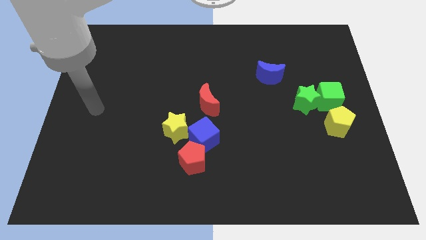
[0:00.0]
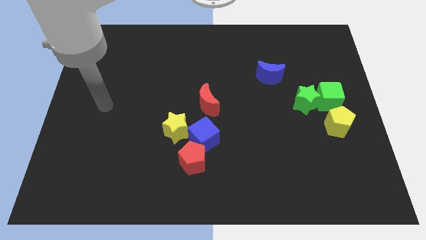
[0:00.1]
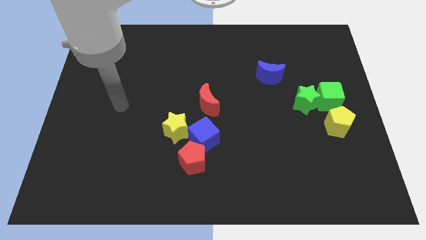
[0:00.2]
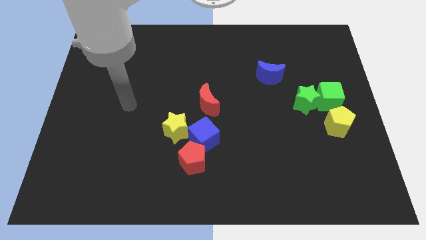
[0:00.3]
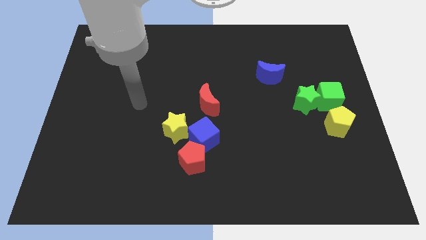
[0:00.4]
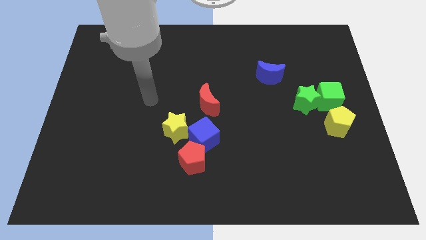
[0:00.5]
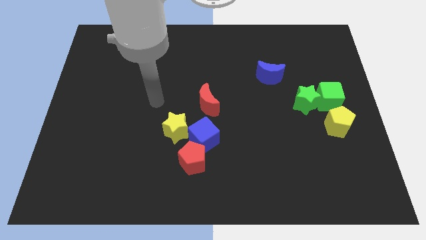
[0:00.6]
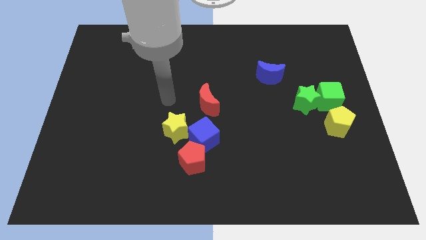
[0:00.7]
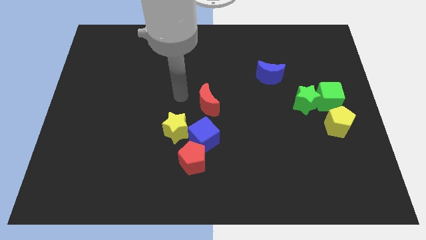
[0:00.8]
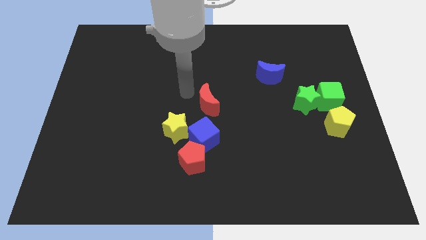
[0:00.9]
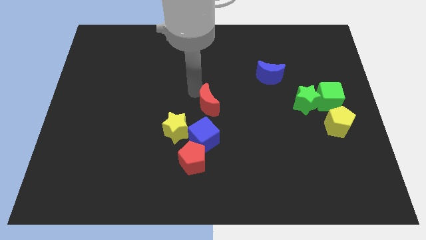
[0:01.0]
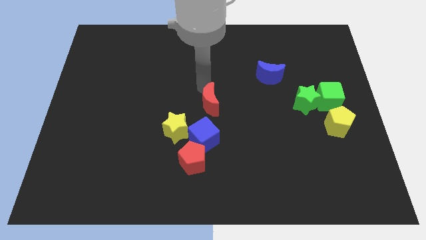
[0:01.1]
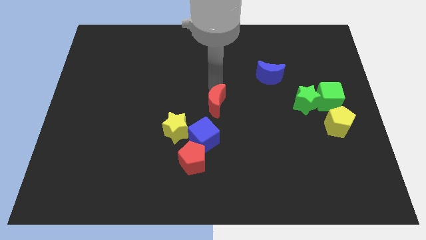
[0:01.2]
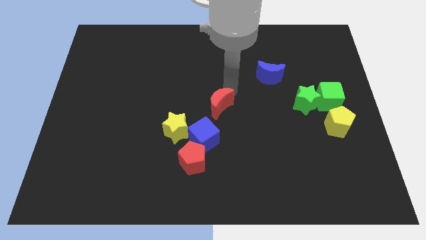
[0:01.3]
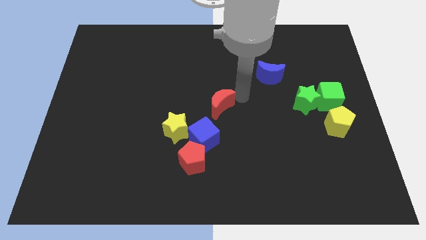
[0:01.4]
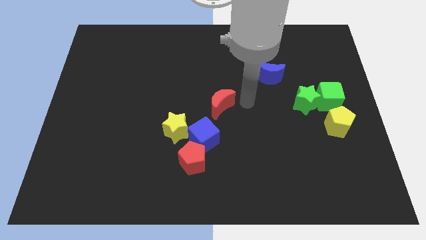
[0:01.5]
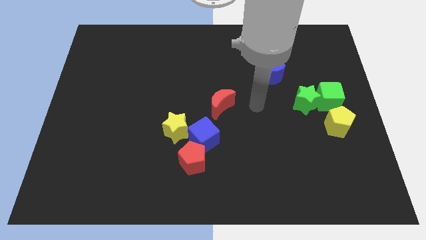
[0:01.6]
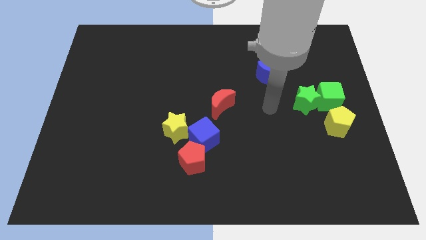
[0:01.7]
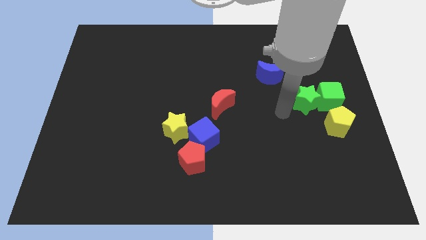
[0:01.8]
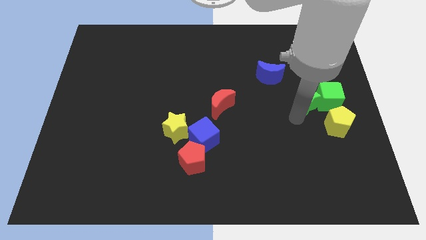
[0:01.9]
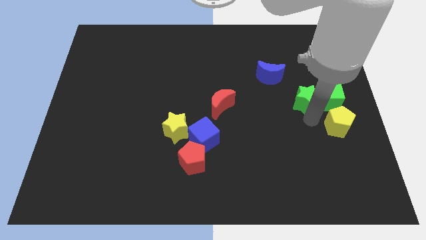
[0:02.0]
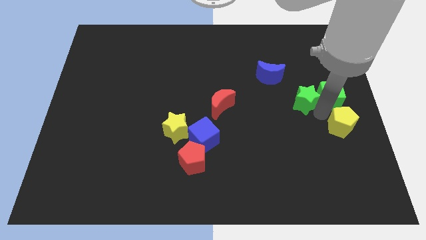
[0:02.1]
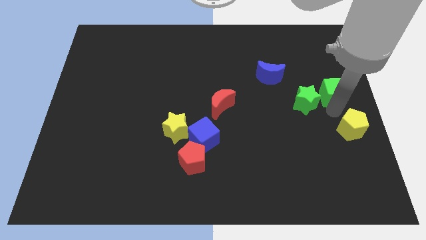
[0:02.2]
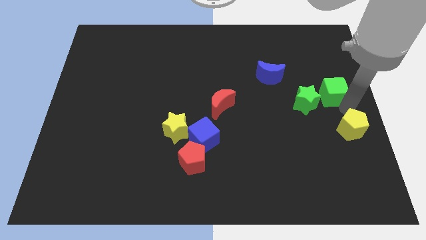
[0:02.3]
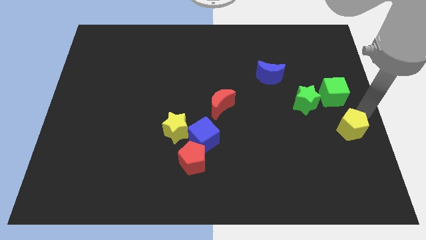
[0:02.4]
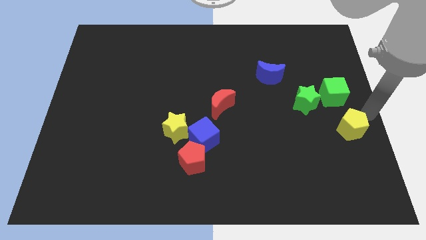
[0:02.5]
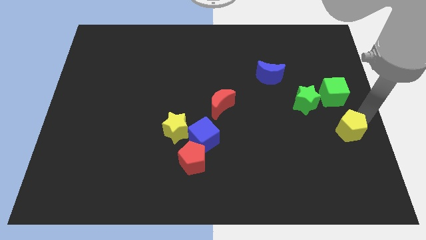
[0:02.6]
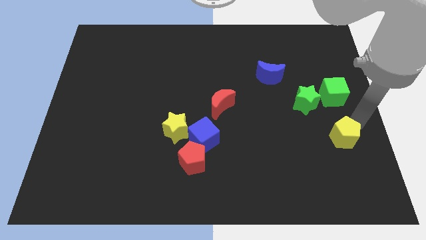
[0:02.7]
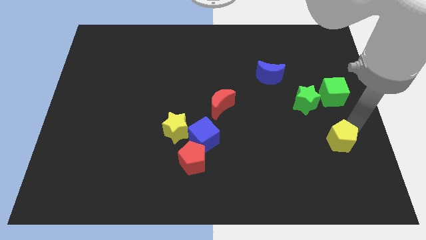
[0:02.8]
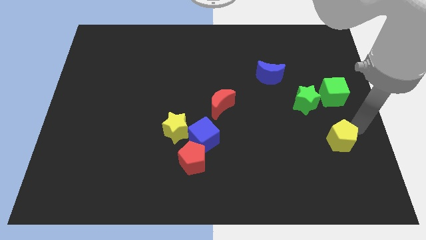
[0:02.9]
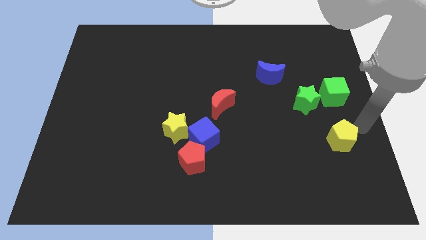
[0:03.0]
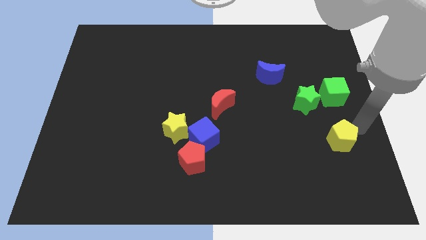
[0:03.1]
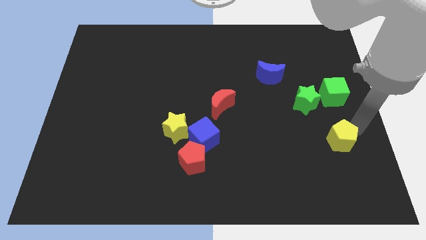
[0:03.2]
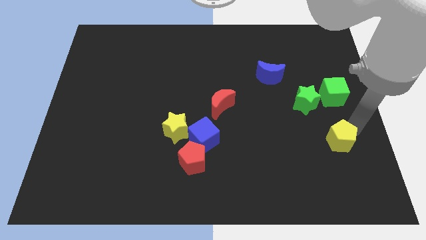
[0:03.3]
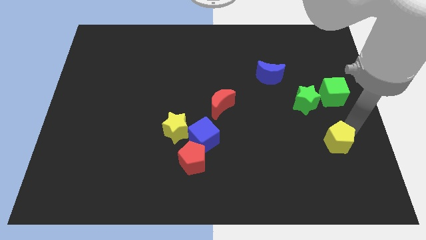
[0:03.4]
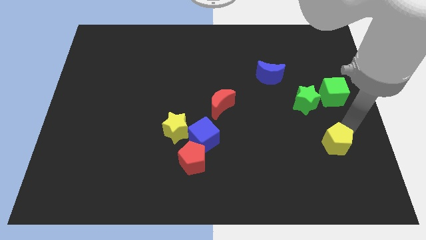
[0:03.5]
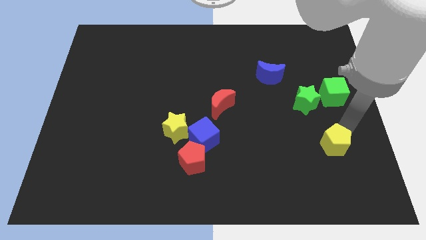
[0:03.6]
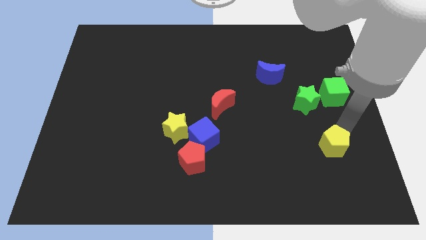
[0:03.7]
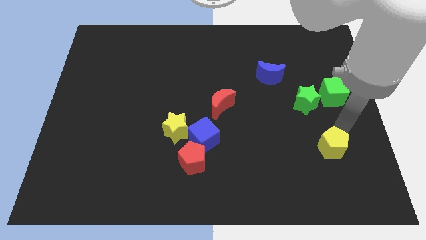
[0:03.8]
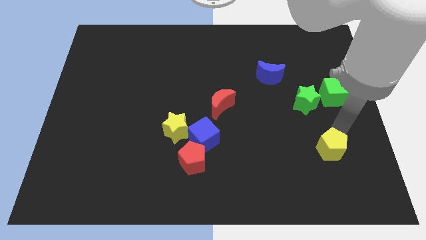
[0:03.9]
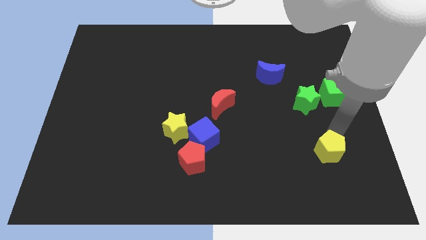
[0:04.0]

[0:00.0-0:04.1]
slightly push the yellow pentagon diagonally down and to the left

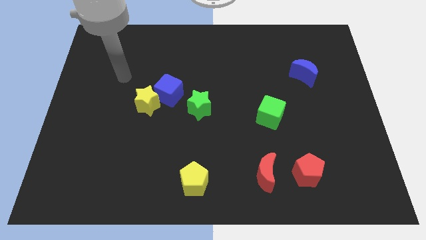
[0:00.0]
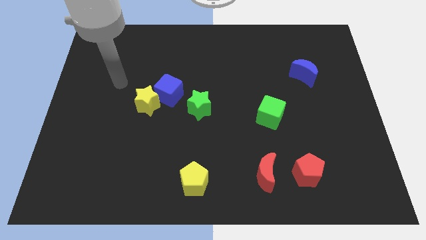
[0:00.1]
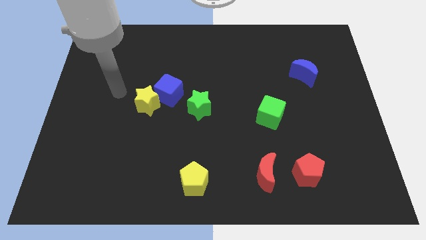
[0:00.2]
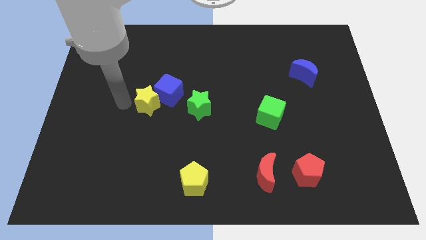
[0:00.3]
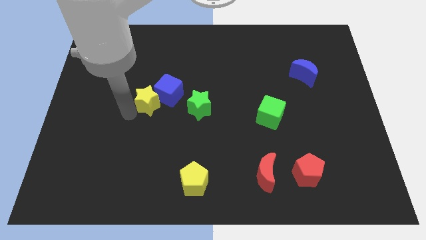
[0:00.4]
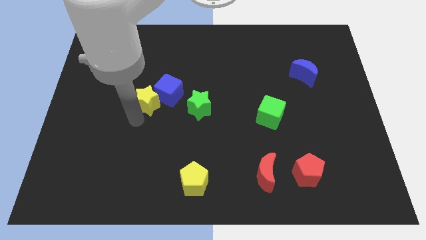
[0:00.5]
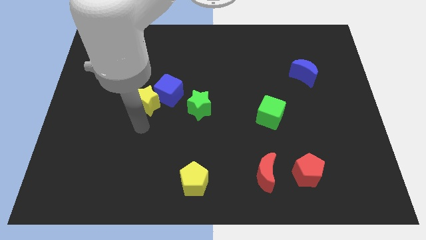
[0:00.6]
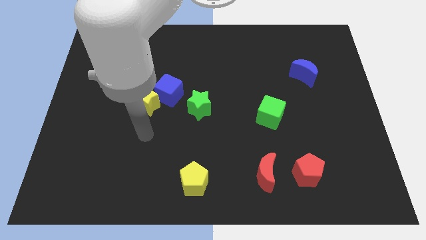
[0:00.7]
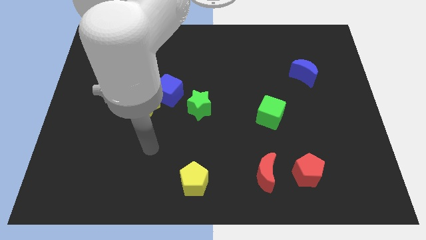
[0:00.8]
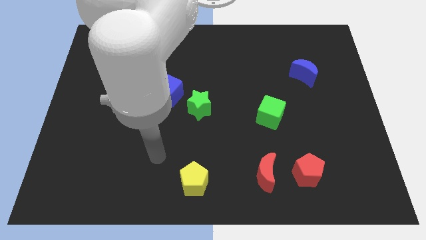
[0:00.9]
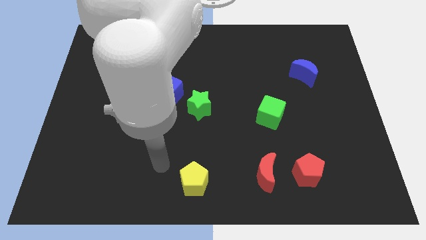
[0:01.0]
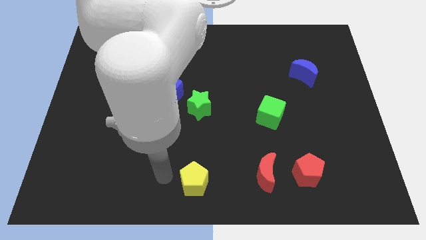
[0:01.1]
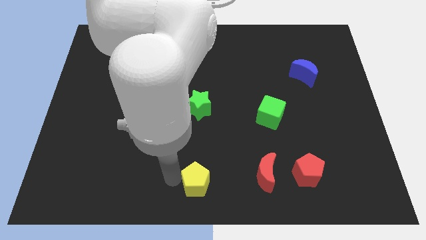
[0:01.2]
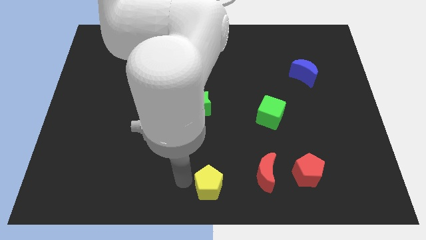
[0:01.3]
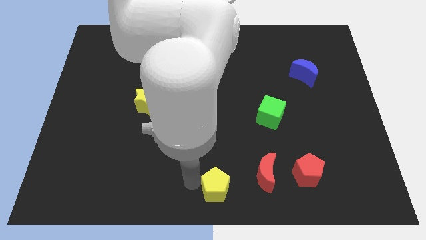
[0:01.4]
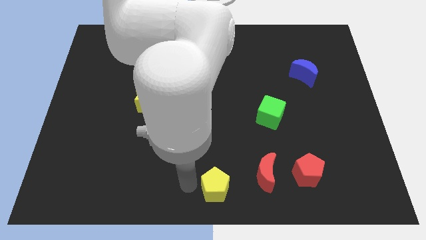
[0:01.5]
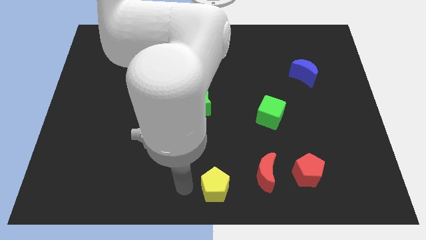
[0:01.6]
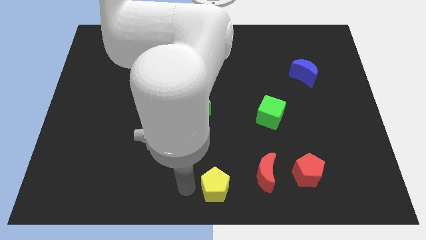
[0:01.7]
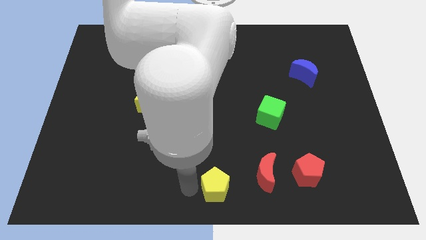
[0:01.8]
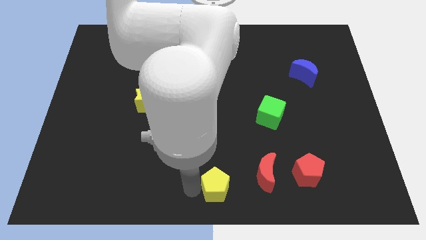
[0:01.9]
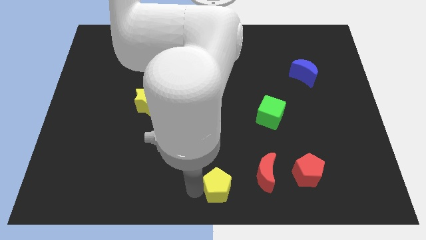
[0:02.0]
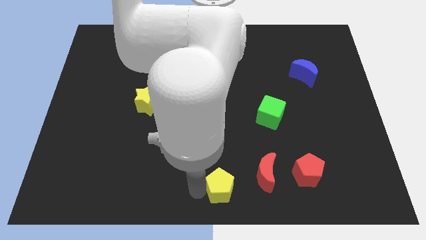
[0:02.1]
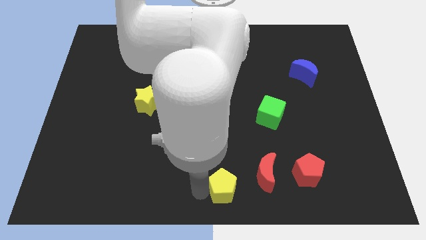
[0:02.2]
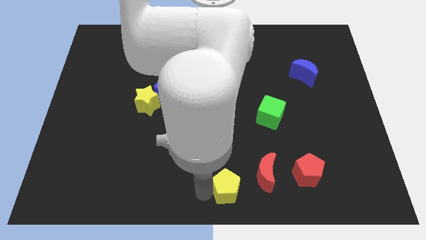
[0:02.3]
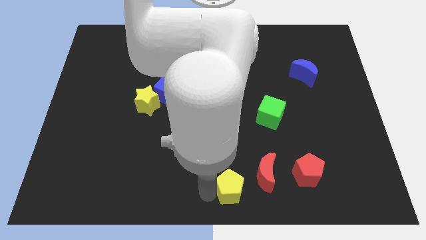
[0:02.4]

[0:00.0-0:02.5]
push the yellow pentagon to the right a bit

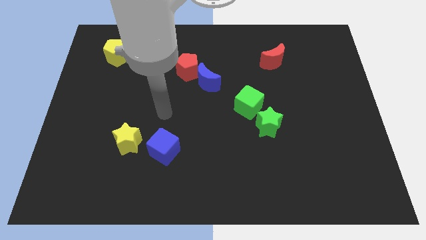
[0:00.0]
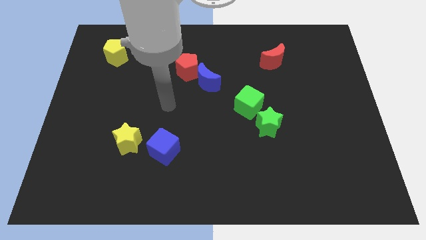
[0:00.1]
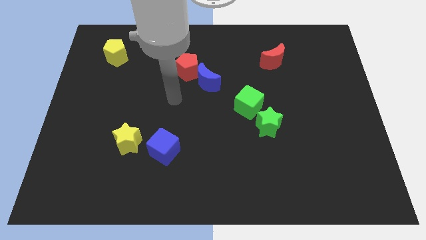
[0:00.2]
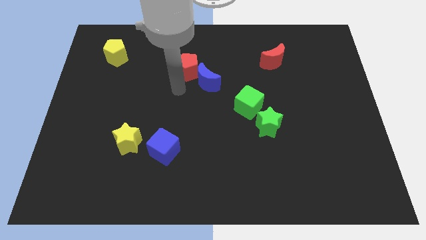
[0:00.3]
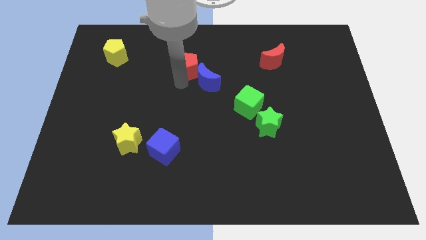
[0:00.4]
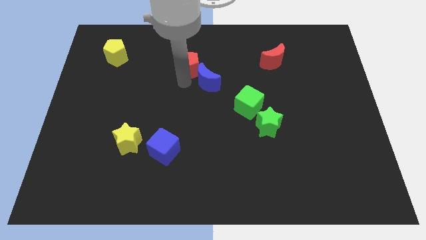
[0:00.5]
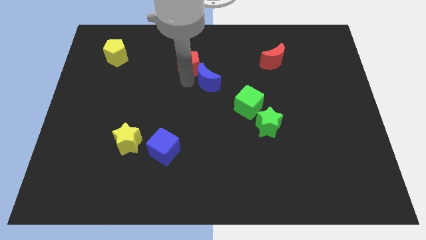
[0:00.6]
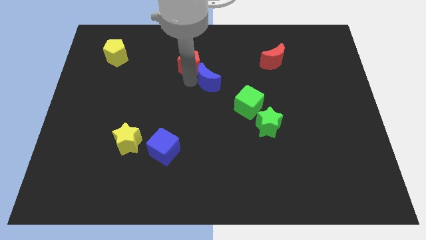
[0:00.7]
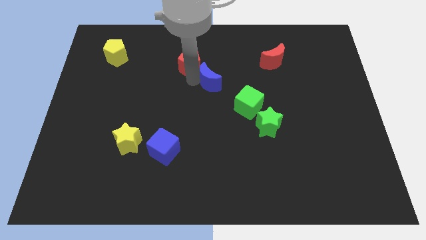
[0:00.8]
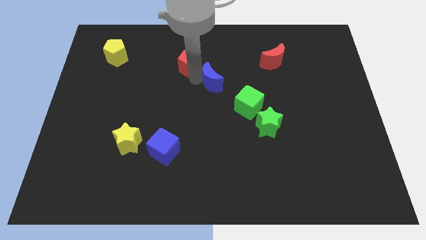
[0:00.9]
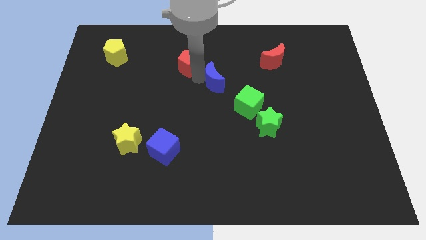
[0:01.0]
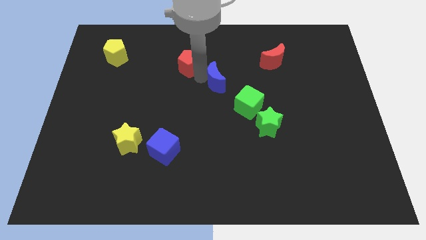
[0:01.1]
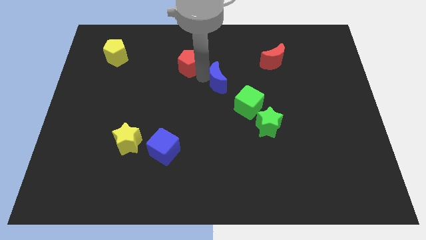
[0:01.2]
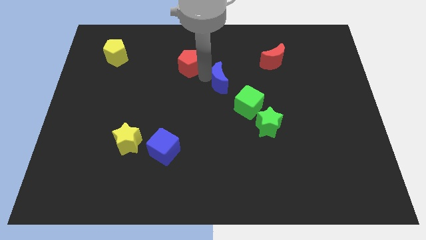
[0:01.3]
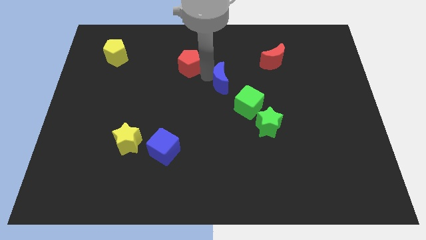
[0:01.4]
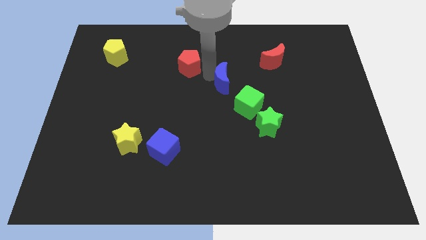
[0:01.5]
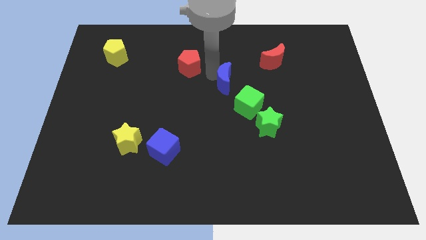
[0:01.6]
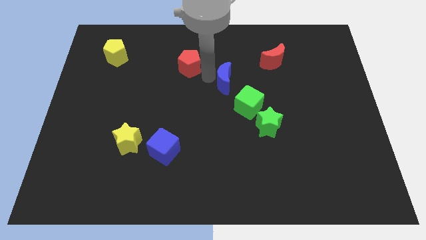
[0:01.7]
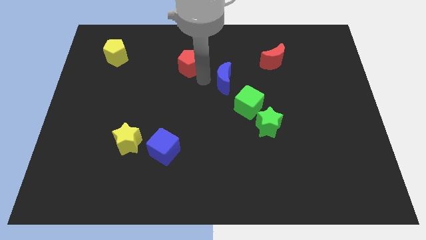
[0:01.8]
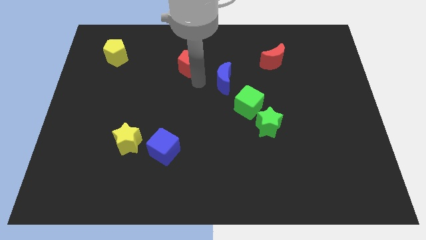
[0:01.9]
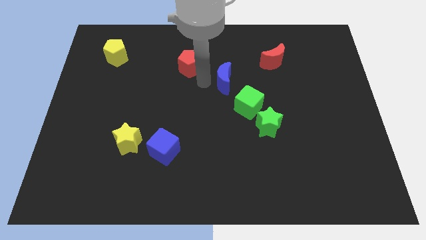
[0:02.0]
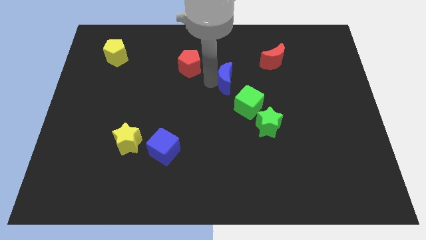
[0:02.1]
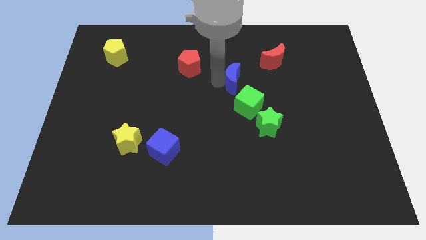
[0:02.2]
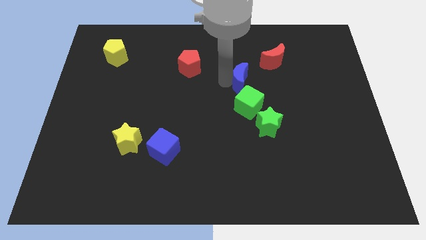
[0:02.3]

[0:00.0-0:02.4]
push the blue moon slightly right
